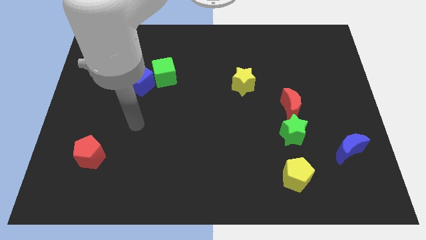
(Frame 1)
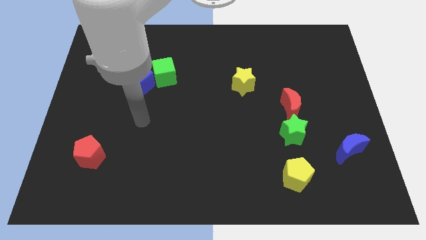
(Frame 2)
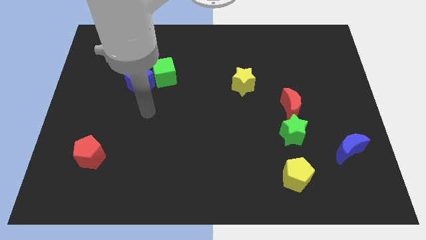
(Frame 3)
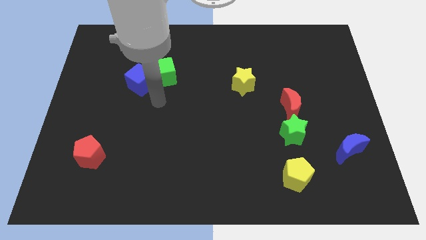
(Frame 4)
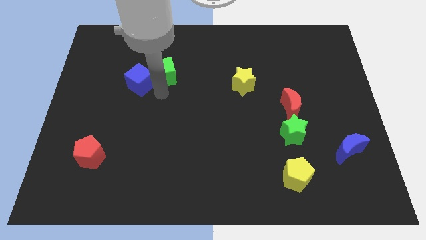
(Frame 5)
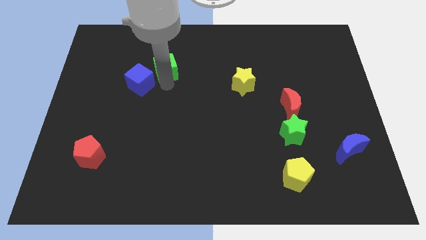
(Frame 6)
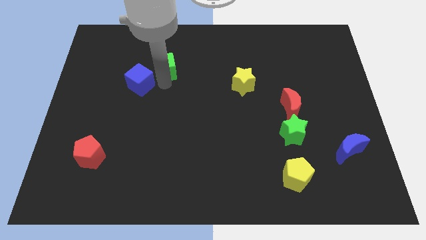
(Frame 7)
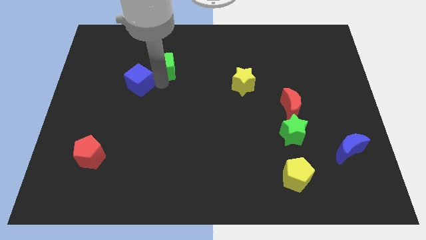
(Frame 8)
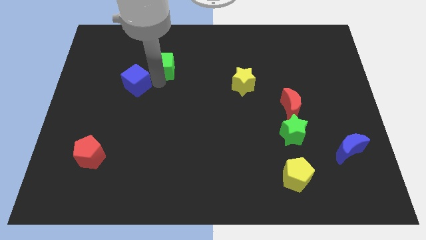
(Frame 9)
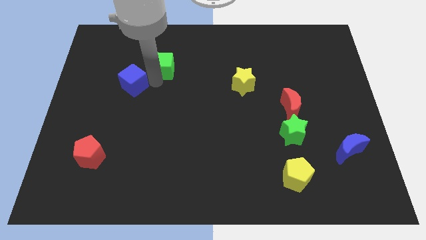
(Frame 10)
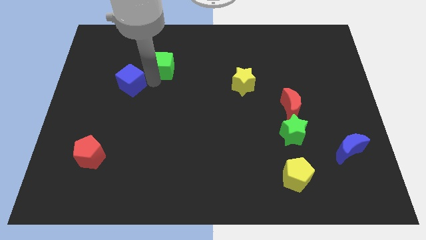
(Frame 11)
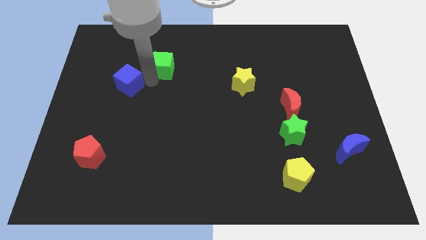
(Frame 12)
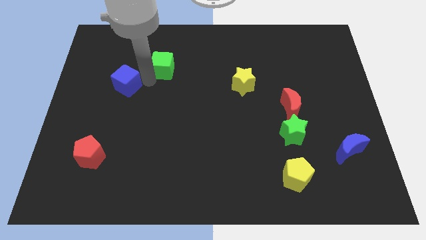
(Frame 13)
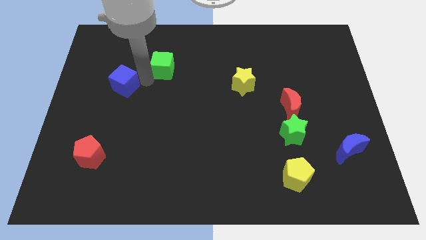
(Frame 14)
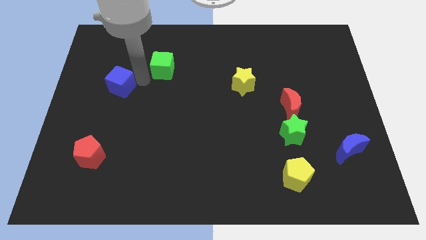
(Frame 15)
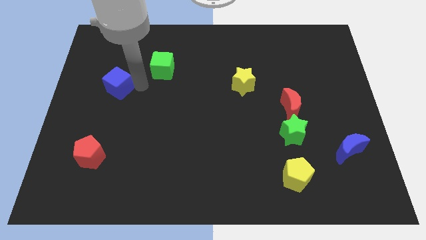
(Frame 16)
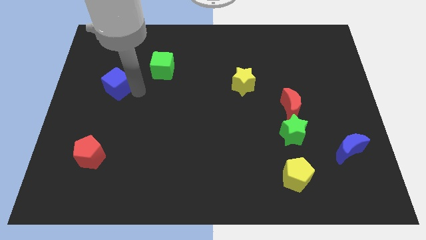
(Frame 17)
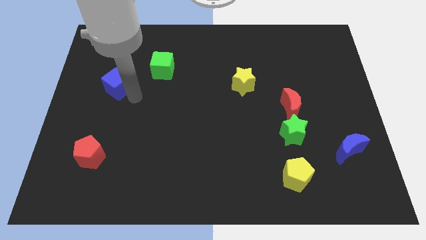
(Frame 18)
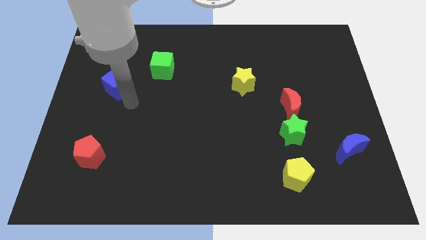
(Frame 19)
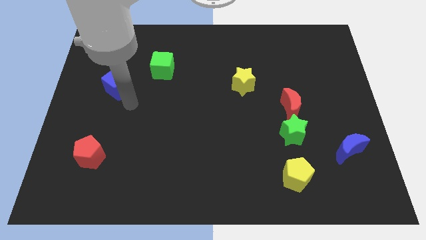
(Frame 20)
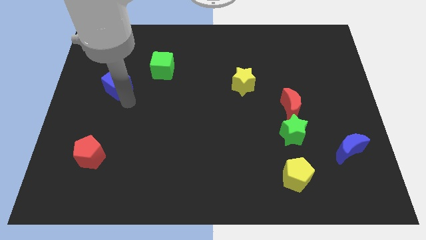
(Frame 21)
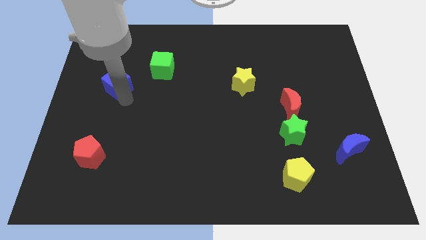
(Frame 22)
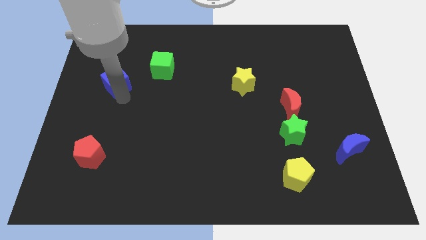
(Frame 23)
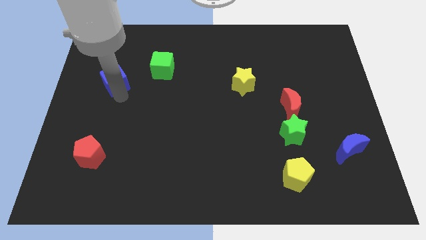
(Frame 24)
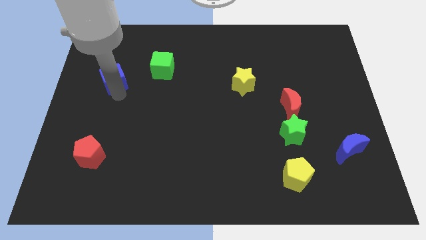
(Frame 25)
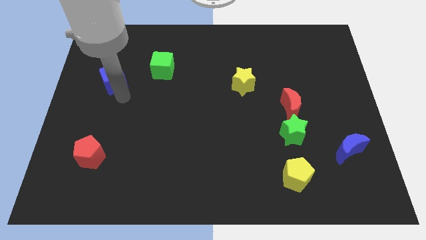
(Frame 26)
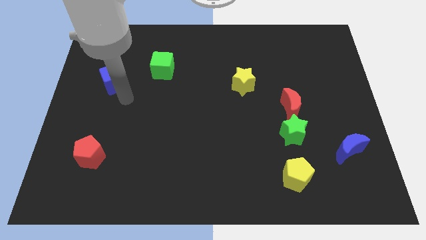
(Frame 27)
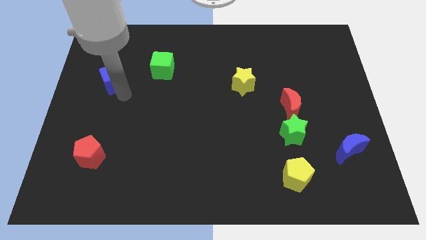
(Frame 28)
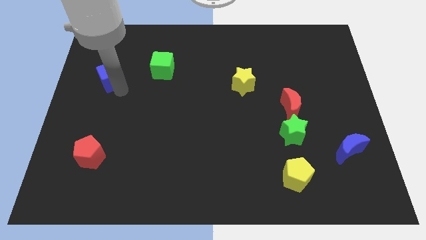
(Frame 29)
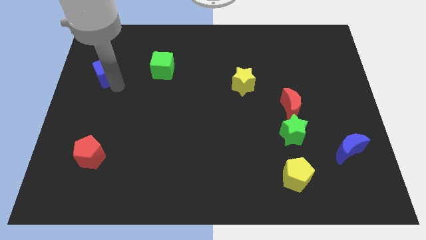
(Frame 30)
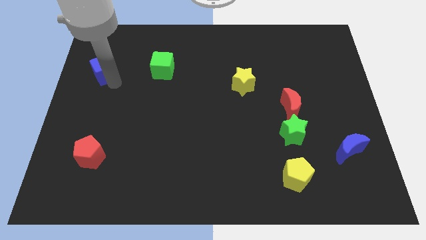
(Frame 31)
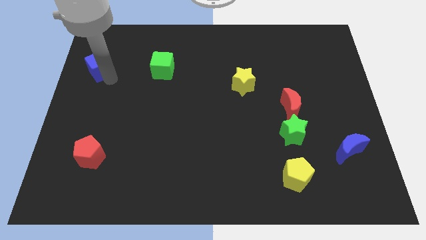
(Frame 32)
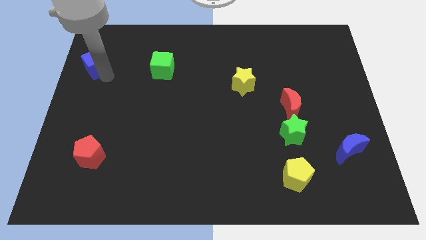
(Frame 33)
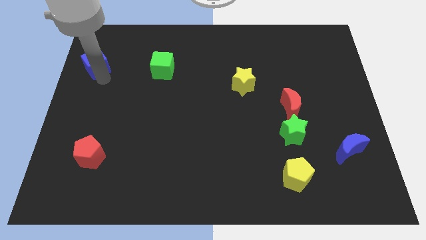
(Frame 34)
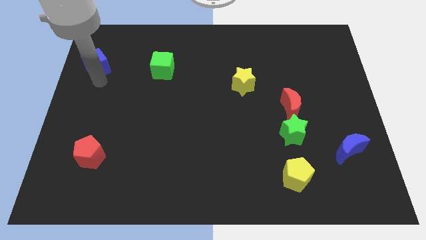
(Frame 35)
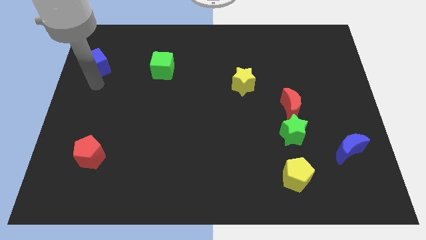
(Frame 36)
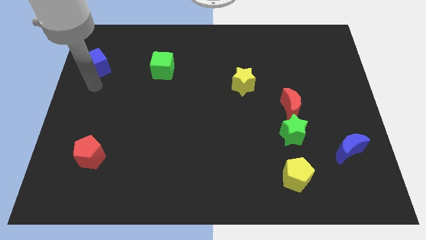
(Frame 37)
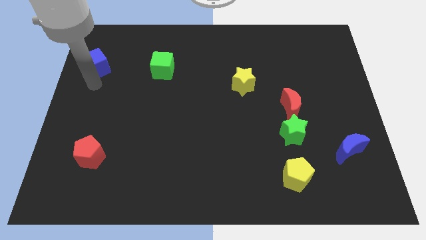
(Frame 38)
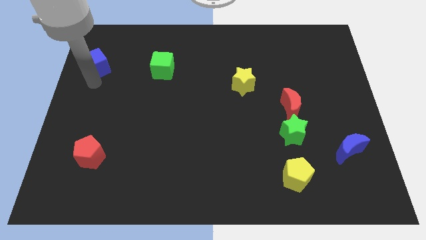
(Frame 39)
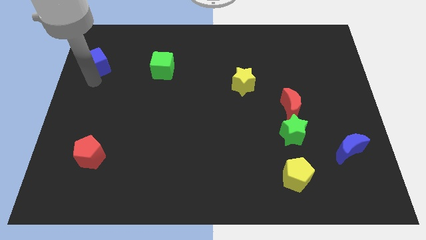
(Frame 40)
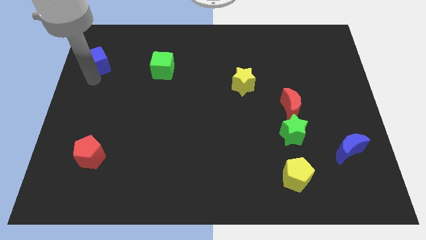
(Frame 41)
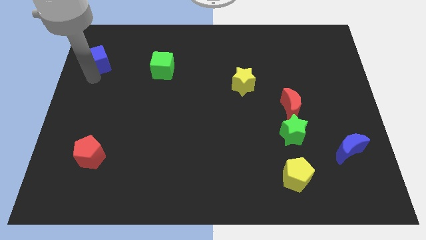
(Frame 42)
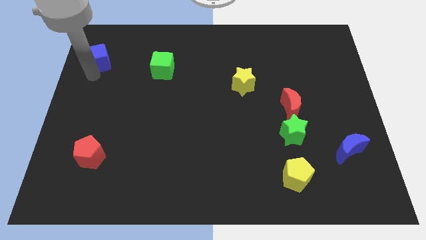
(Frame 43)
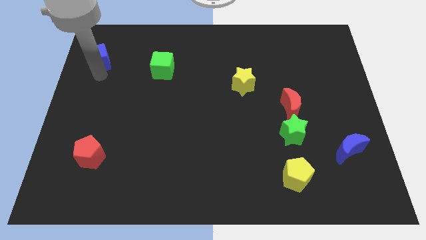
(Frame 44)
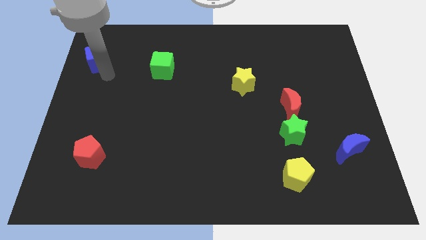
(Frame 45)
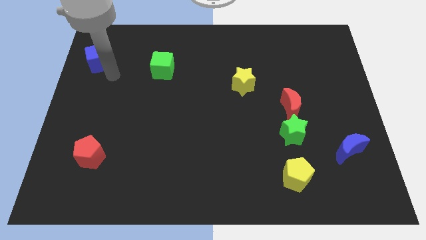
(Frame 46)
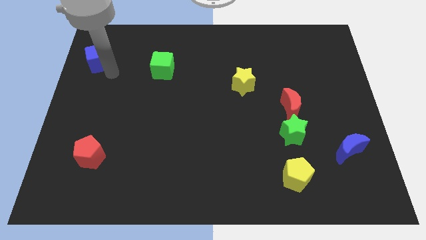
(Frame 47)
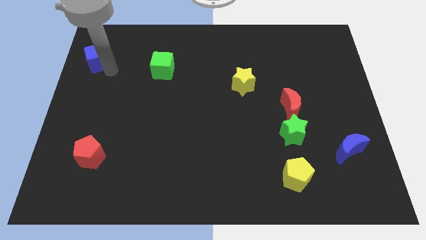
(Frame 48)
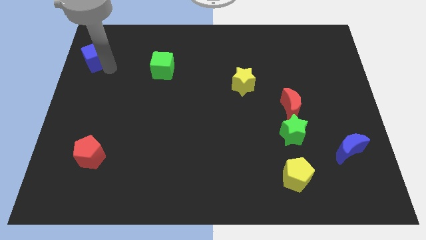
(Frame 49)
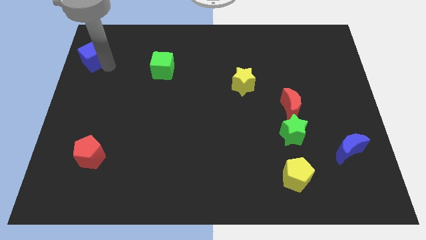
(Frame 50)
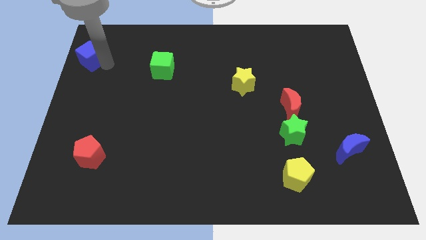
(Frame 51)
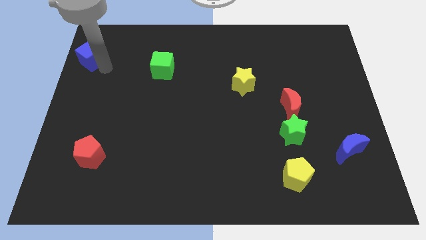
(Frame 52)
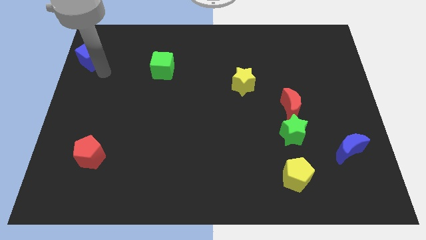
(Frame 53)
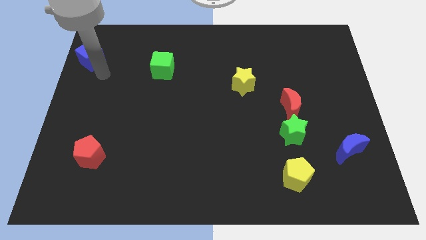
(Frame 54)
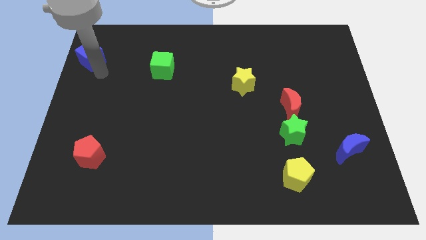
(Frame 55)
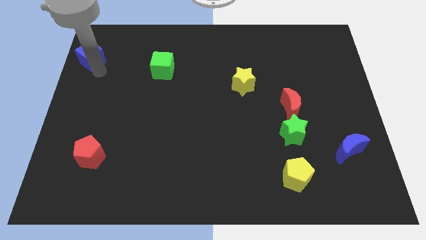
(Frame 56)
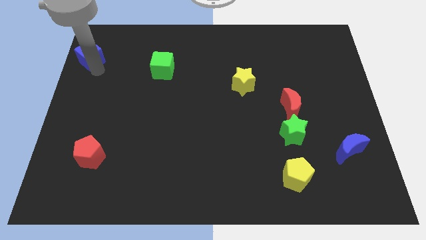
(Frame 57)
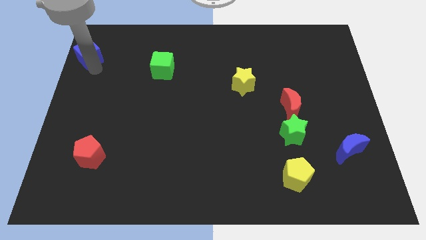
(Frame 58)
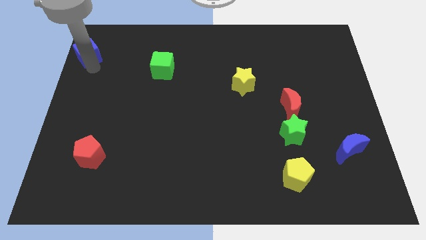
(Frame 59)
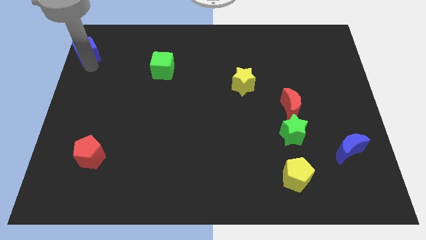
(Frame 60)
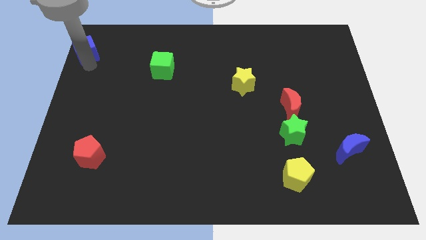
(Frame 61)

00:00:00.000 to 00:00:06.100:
move the blue cube to the top left

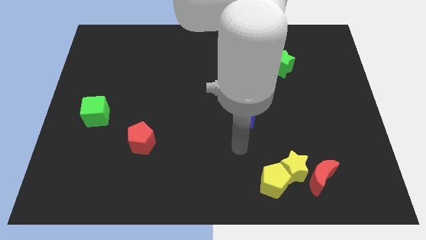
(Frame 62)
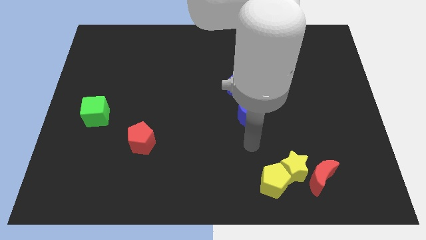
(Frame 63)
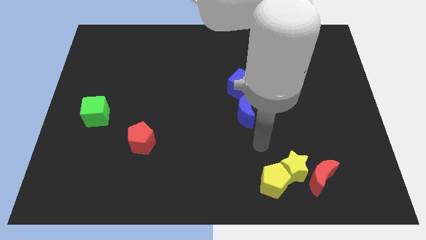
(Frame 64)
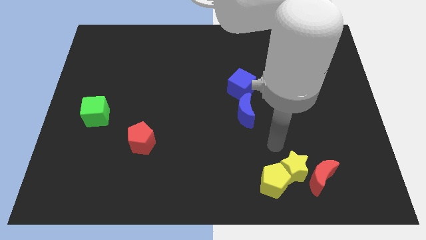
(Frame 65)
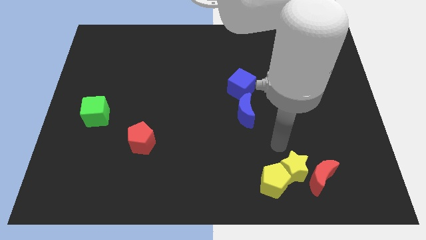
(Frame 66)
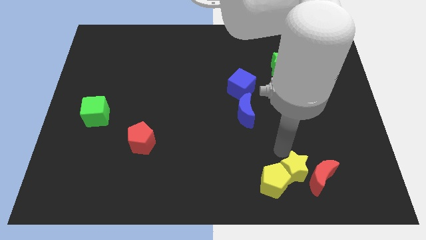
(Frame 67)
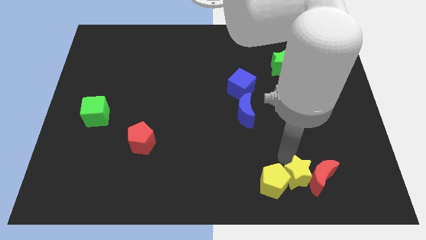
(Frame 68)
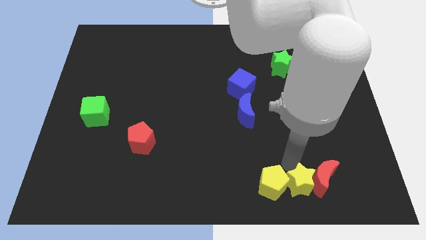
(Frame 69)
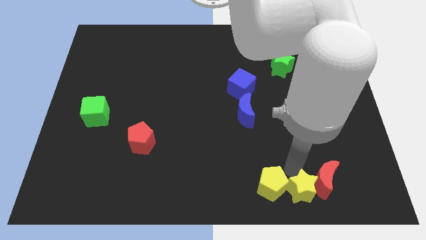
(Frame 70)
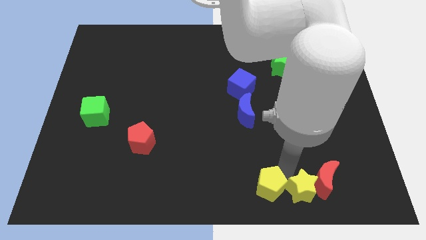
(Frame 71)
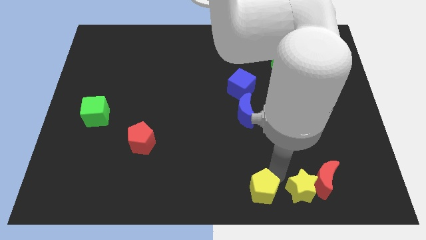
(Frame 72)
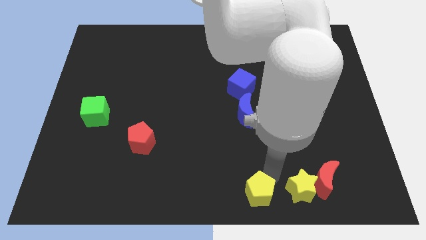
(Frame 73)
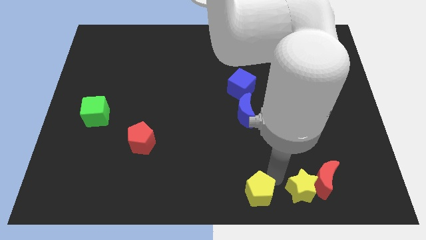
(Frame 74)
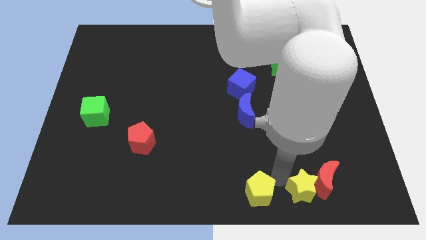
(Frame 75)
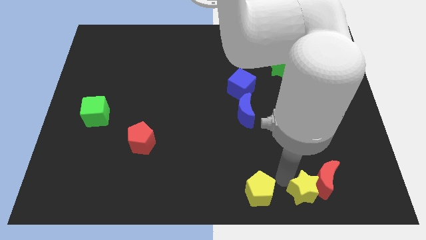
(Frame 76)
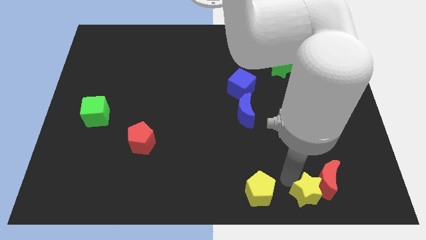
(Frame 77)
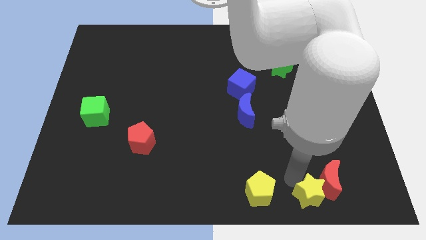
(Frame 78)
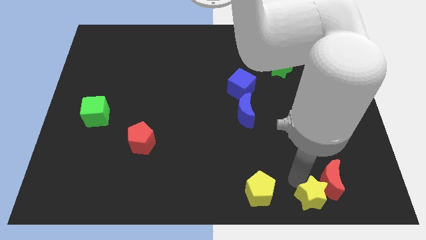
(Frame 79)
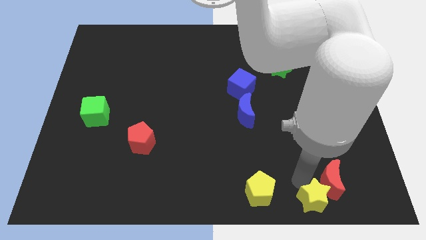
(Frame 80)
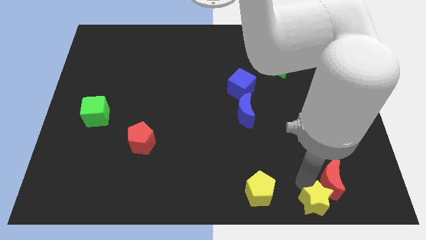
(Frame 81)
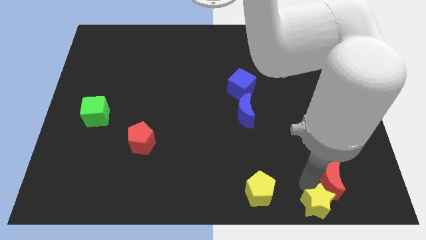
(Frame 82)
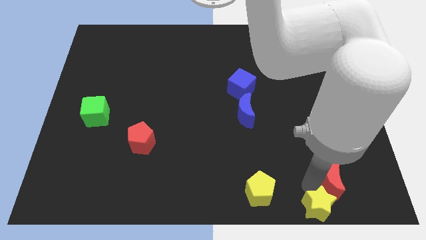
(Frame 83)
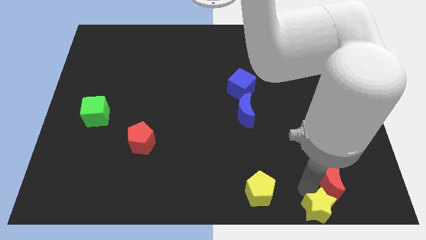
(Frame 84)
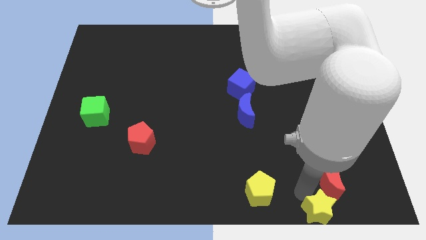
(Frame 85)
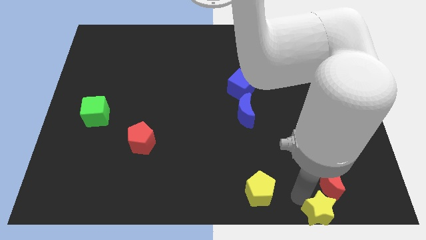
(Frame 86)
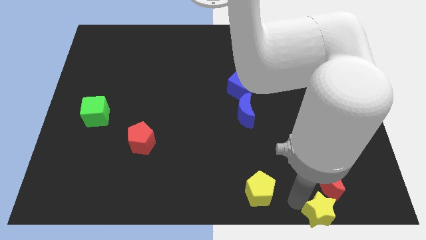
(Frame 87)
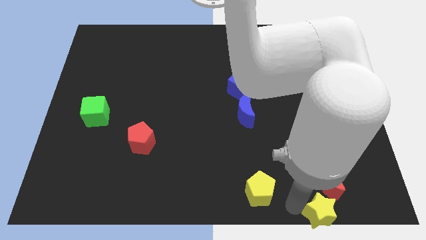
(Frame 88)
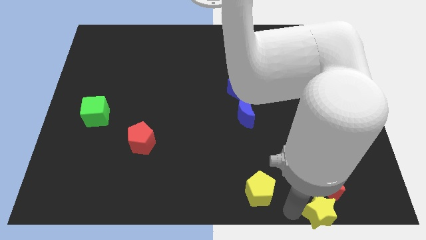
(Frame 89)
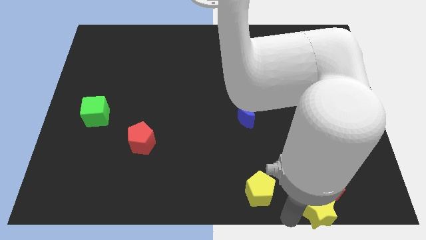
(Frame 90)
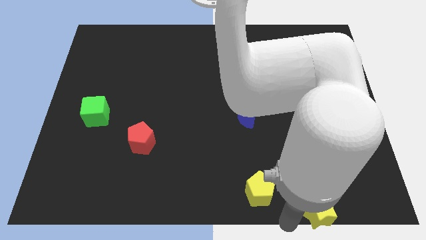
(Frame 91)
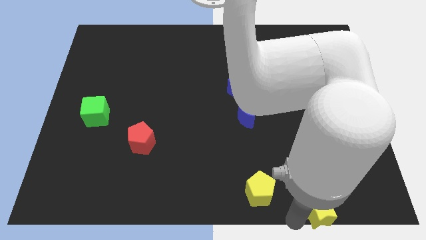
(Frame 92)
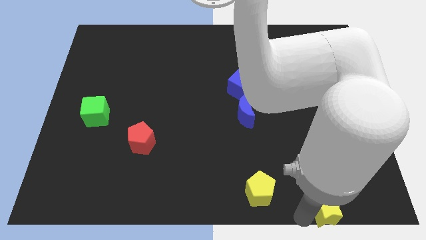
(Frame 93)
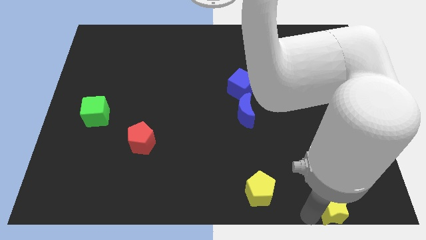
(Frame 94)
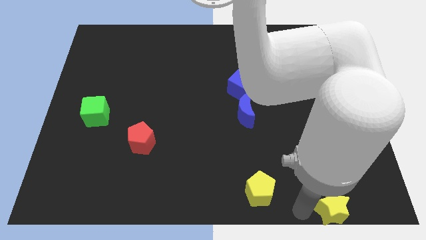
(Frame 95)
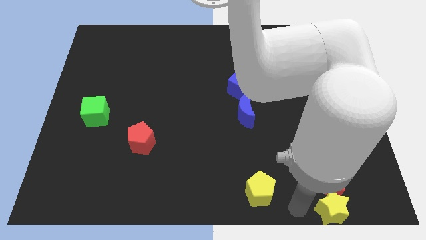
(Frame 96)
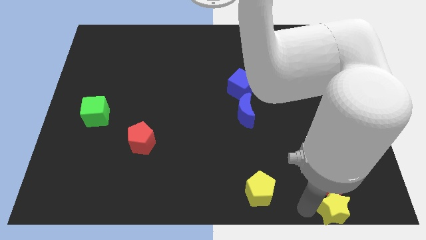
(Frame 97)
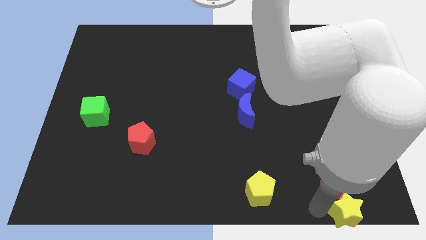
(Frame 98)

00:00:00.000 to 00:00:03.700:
move the yellow star to the lower right corner
